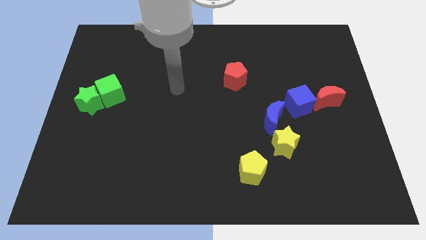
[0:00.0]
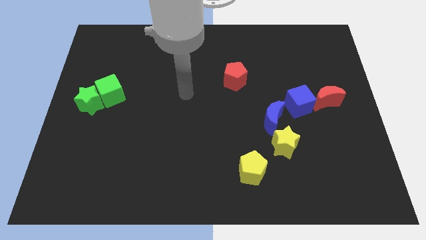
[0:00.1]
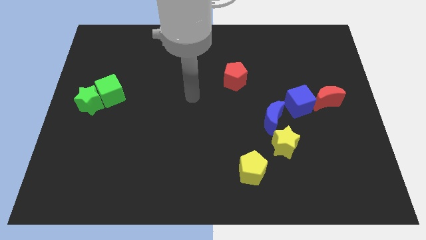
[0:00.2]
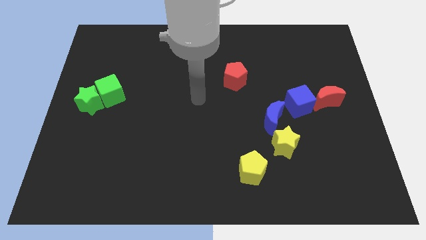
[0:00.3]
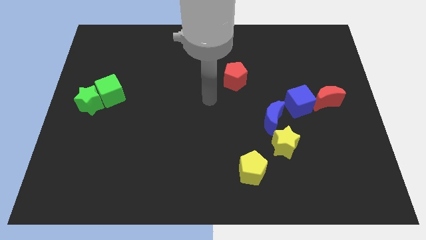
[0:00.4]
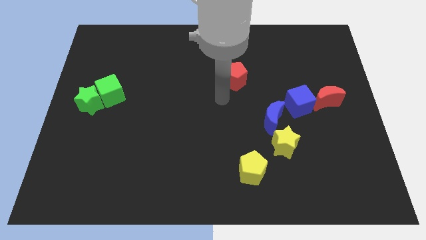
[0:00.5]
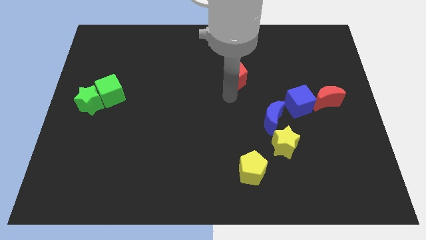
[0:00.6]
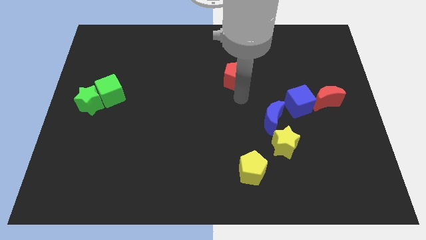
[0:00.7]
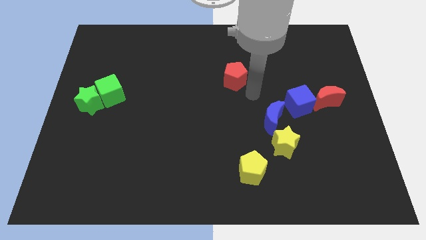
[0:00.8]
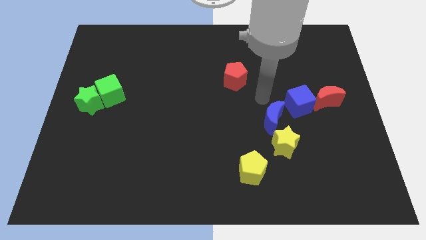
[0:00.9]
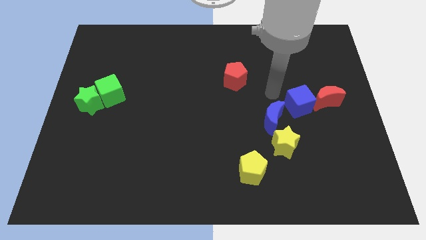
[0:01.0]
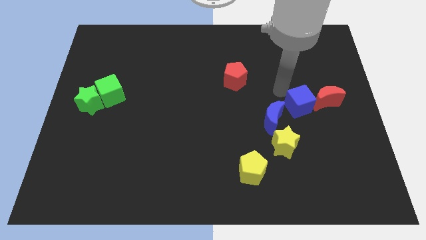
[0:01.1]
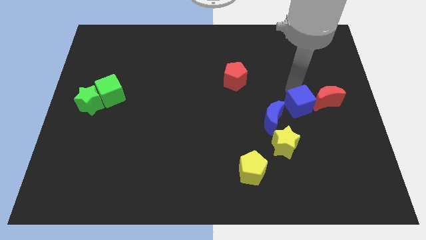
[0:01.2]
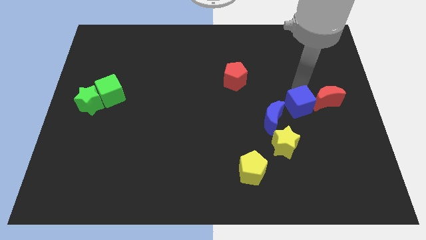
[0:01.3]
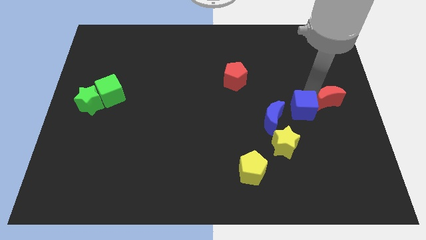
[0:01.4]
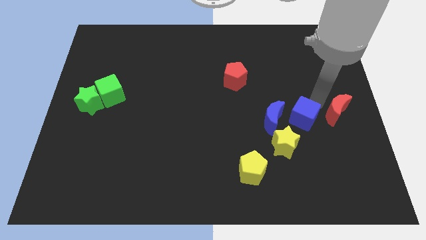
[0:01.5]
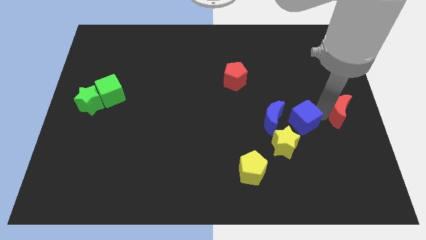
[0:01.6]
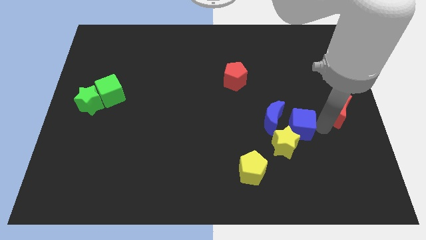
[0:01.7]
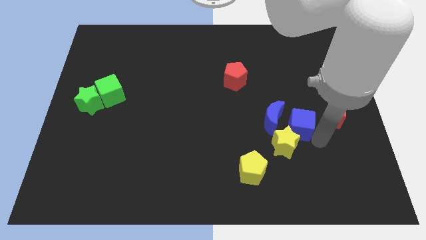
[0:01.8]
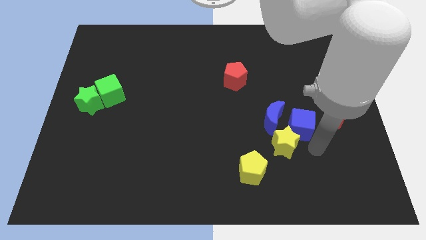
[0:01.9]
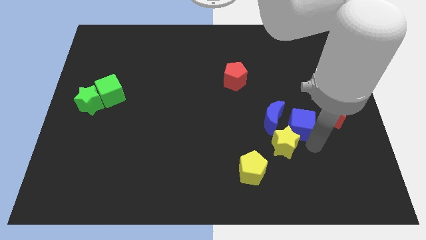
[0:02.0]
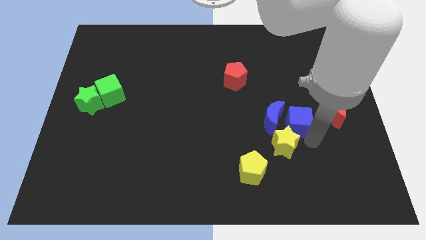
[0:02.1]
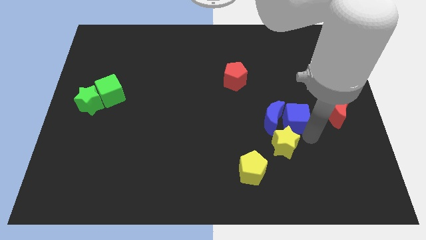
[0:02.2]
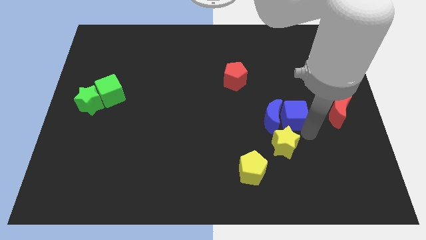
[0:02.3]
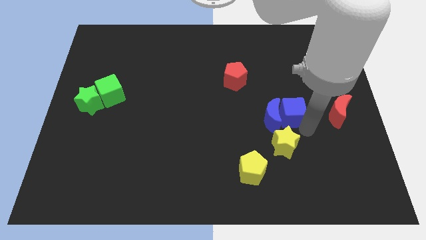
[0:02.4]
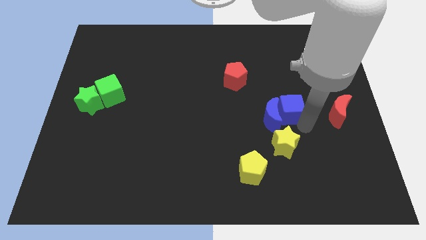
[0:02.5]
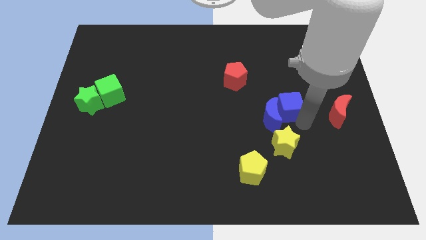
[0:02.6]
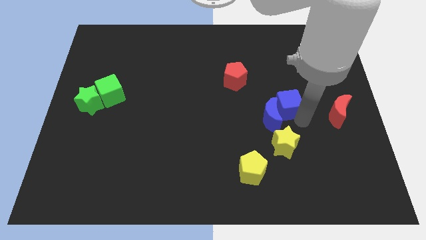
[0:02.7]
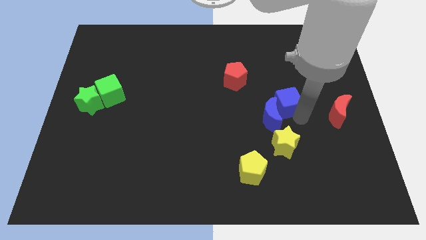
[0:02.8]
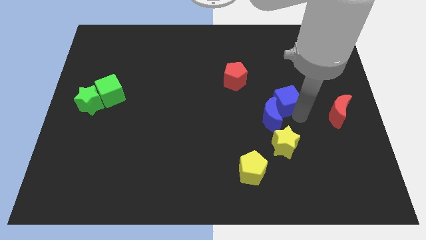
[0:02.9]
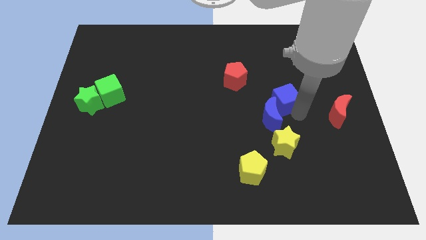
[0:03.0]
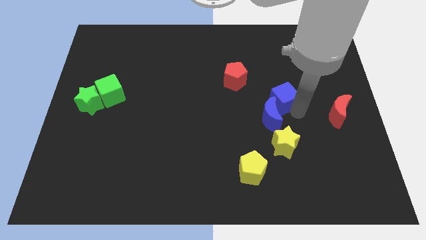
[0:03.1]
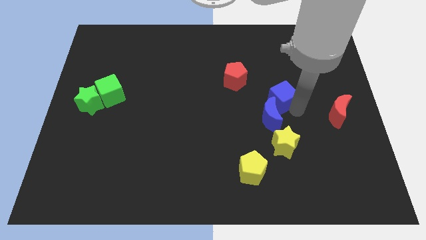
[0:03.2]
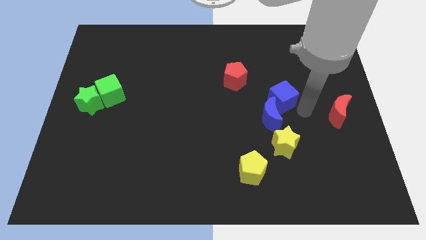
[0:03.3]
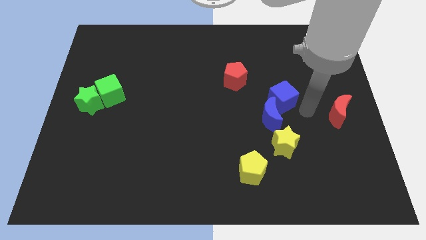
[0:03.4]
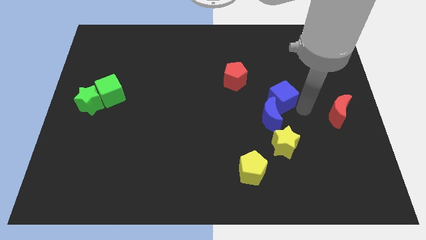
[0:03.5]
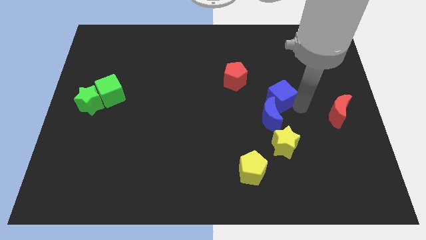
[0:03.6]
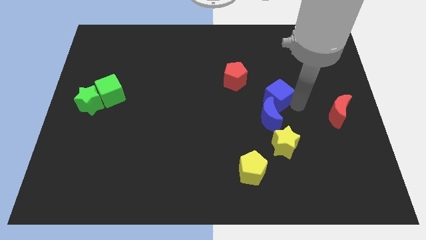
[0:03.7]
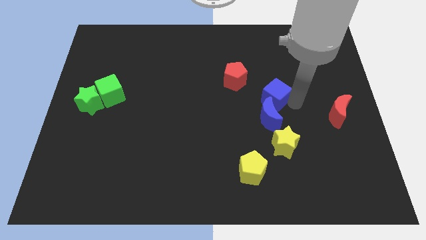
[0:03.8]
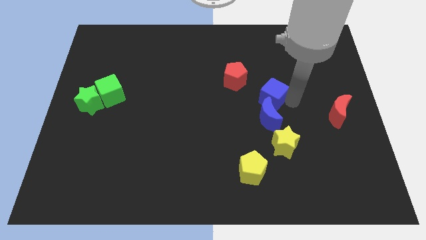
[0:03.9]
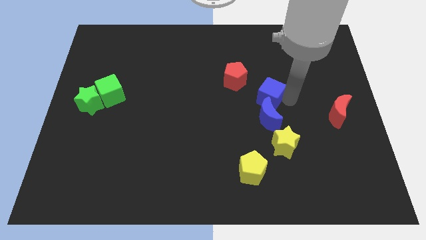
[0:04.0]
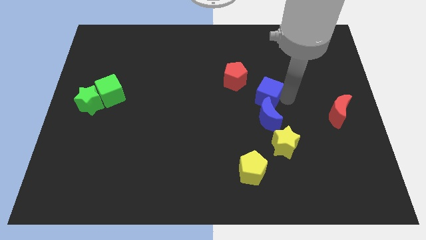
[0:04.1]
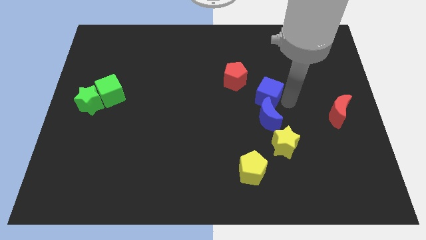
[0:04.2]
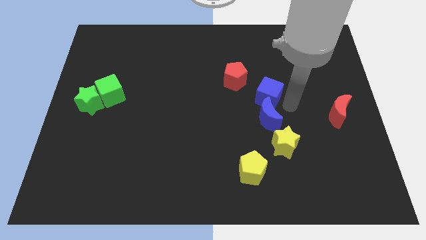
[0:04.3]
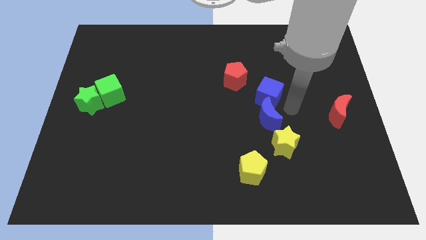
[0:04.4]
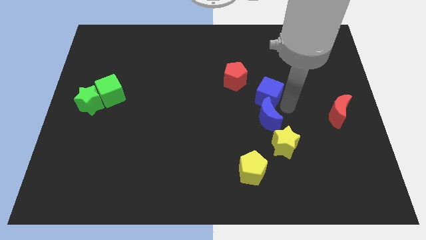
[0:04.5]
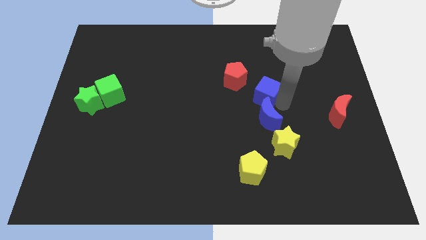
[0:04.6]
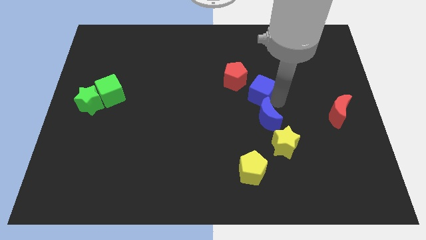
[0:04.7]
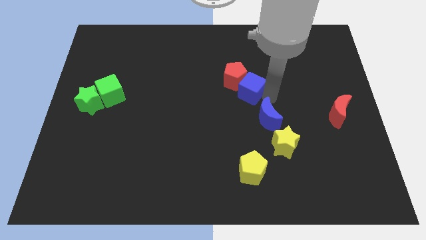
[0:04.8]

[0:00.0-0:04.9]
slide the blue cube next to the red pentagon

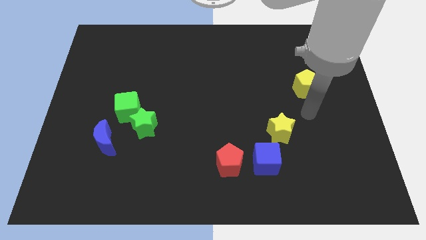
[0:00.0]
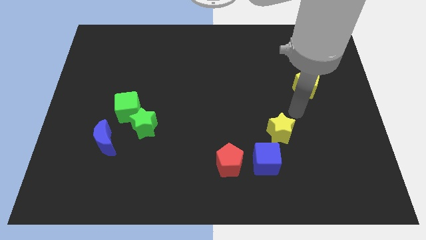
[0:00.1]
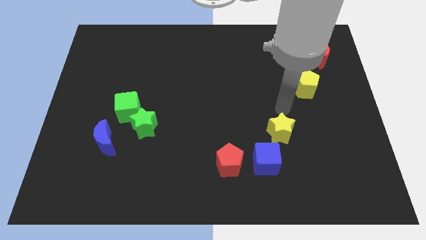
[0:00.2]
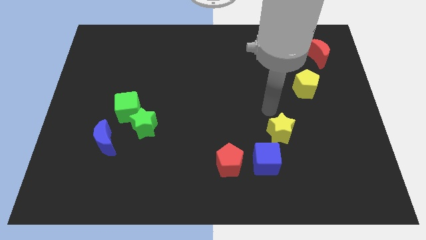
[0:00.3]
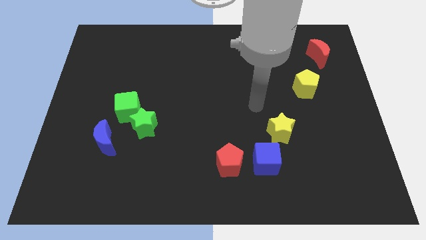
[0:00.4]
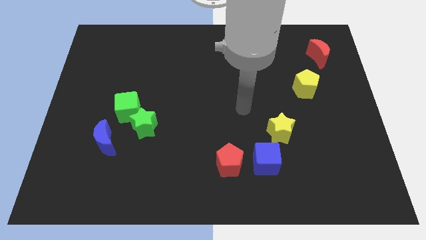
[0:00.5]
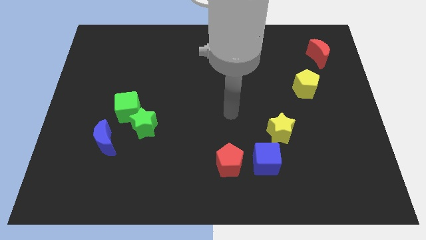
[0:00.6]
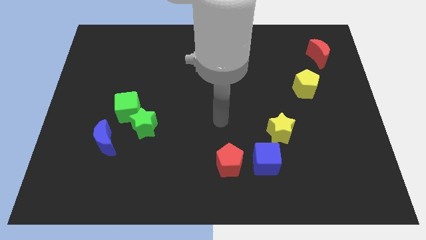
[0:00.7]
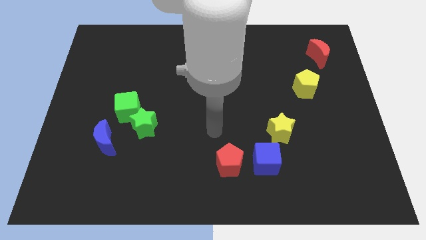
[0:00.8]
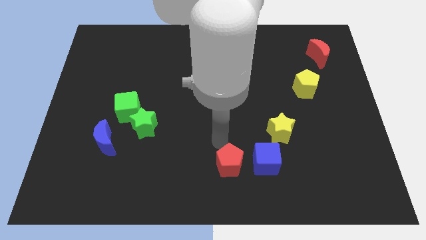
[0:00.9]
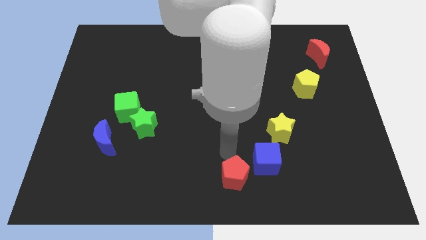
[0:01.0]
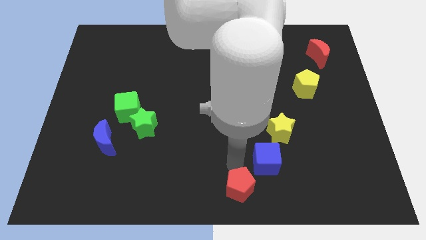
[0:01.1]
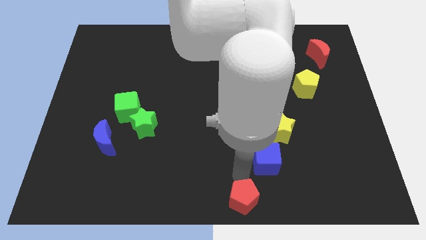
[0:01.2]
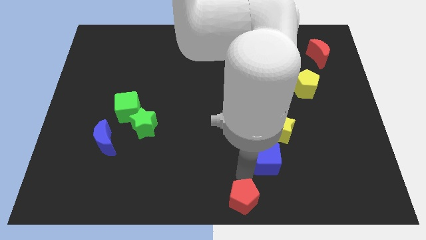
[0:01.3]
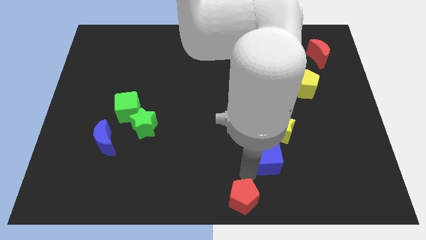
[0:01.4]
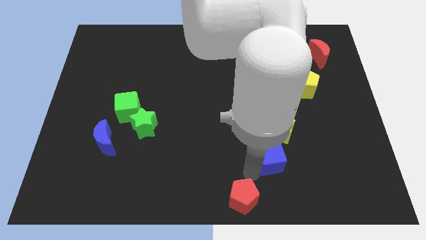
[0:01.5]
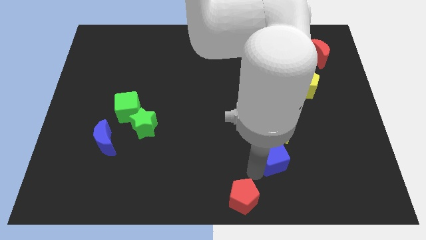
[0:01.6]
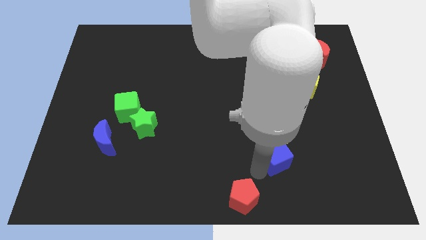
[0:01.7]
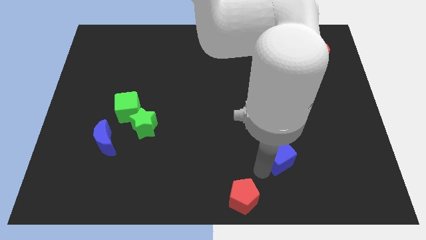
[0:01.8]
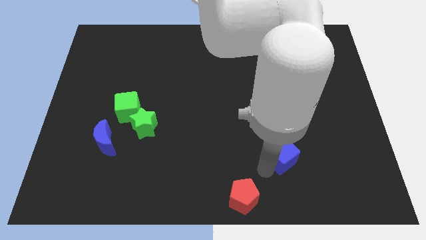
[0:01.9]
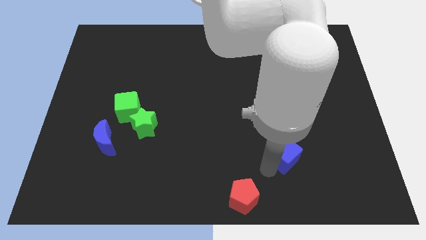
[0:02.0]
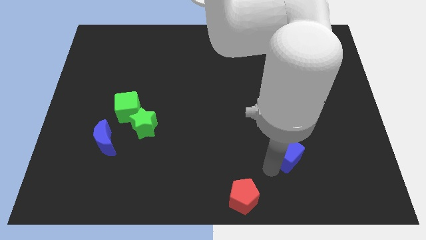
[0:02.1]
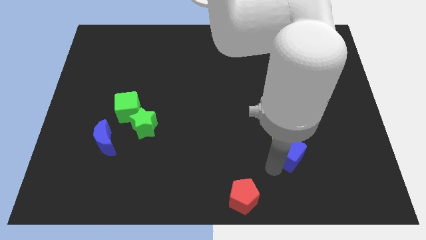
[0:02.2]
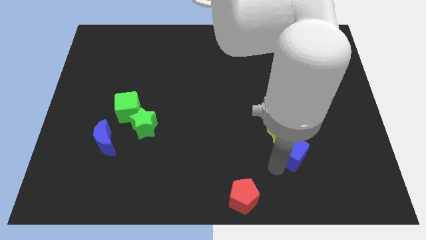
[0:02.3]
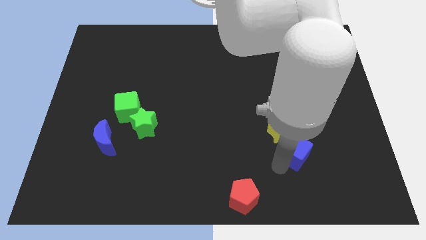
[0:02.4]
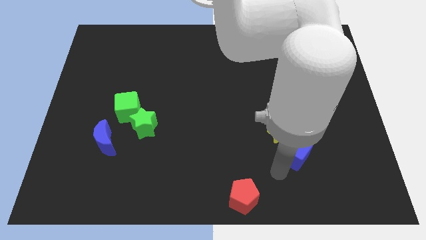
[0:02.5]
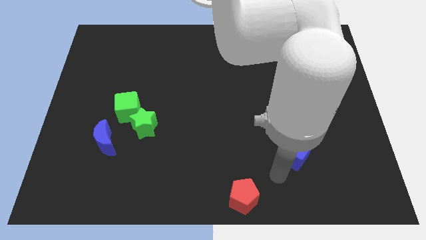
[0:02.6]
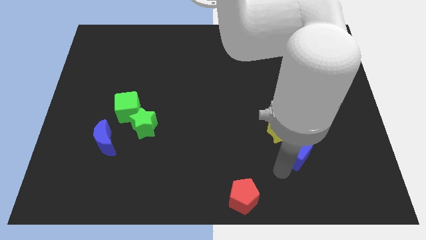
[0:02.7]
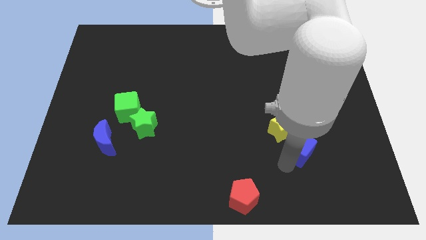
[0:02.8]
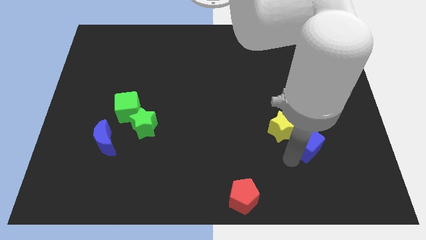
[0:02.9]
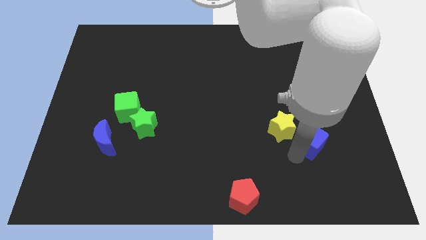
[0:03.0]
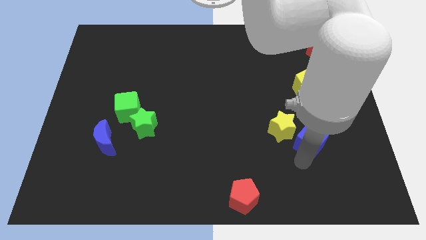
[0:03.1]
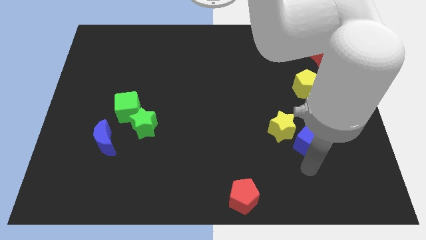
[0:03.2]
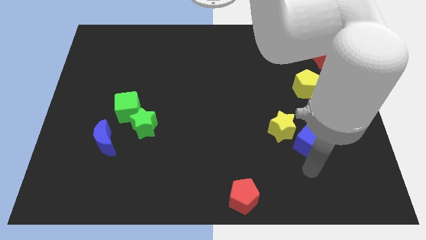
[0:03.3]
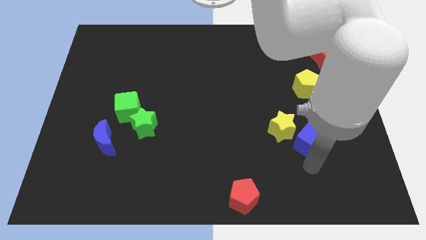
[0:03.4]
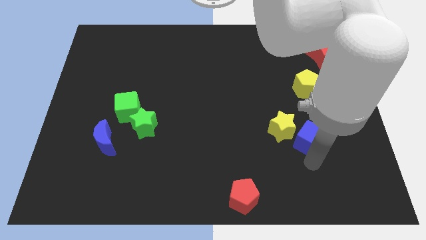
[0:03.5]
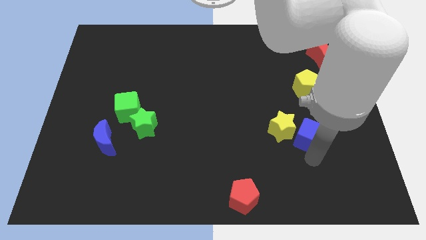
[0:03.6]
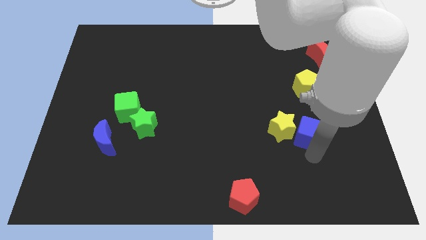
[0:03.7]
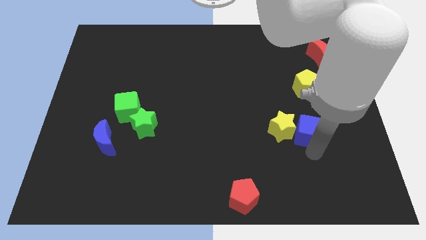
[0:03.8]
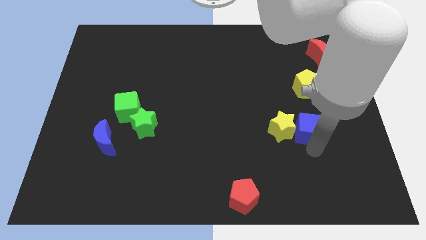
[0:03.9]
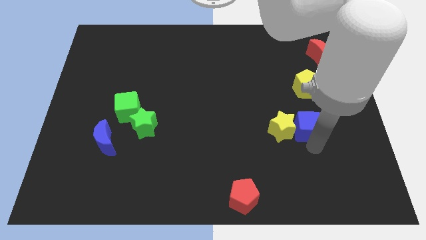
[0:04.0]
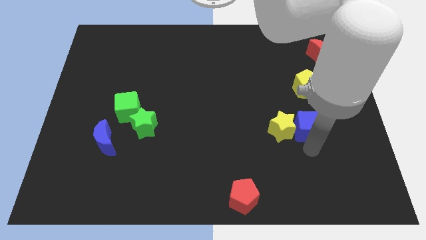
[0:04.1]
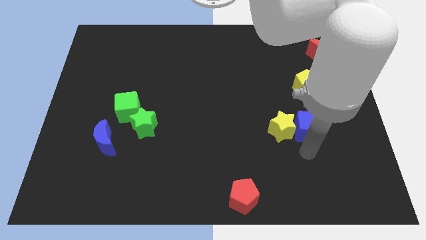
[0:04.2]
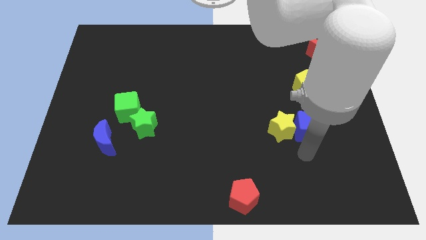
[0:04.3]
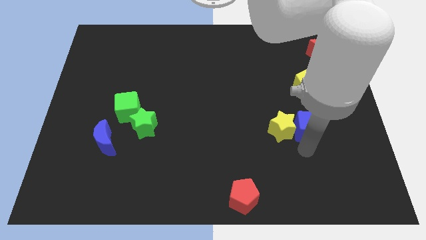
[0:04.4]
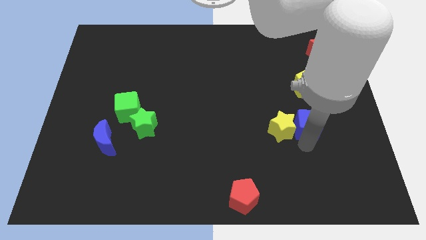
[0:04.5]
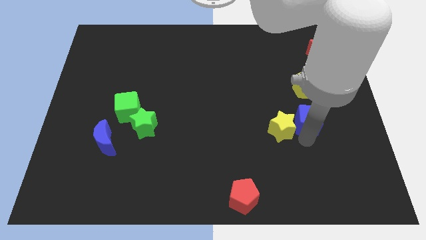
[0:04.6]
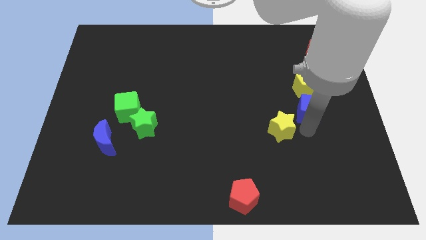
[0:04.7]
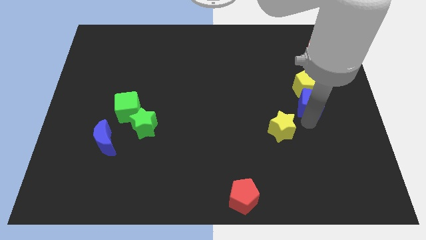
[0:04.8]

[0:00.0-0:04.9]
push the blue cube to the yellow pentagon
